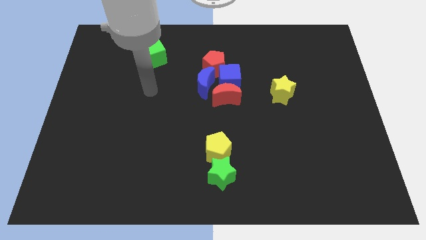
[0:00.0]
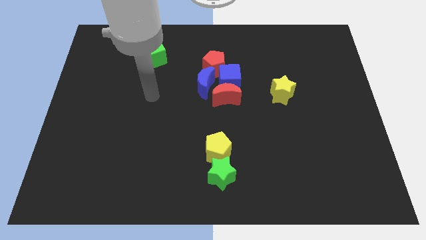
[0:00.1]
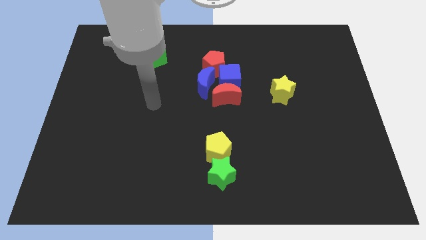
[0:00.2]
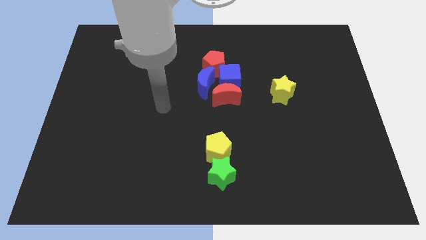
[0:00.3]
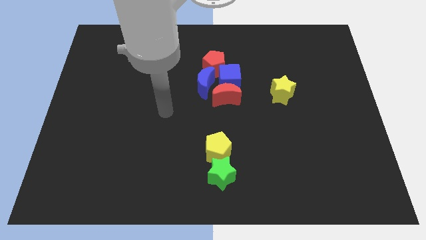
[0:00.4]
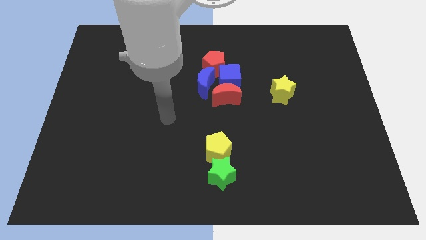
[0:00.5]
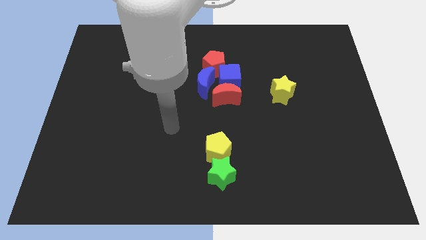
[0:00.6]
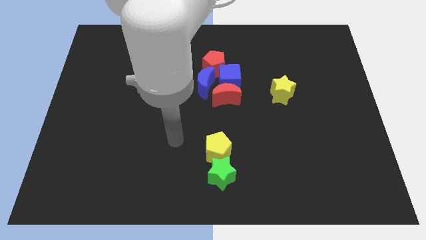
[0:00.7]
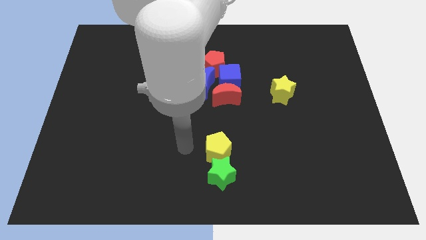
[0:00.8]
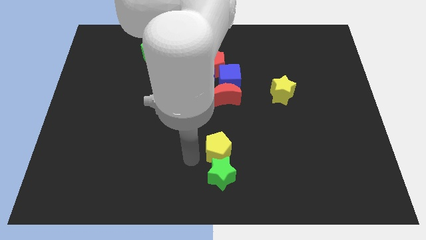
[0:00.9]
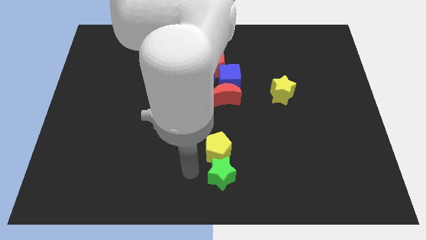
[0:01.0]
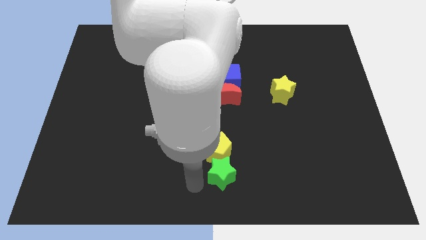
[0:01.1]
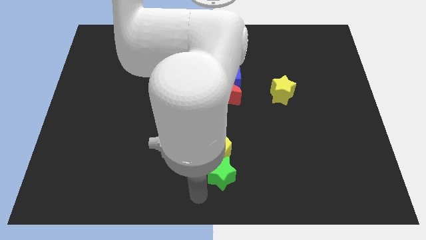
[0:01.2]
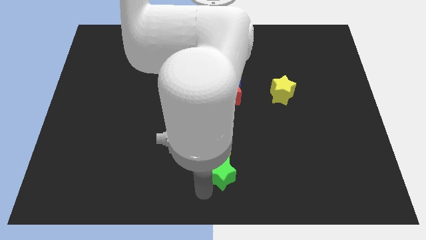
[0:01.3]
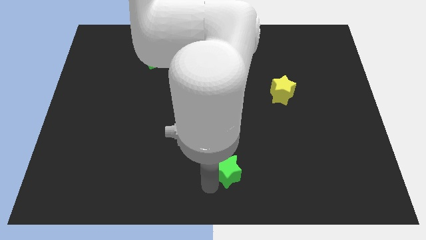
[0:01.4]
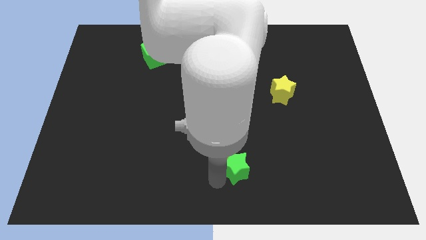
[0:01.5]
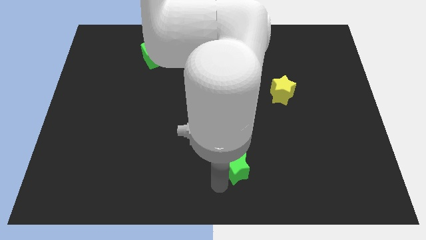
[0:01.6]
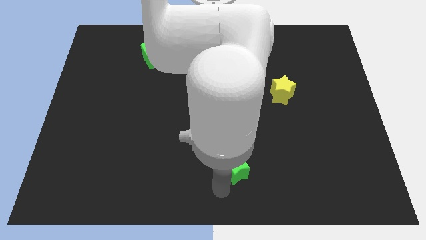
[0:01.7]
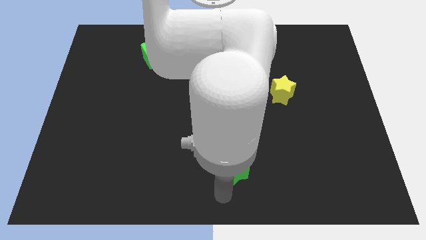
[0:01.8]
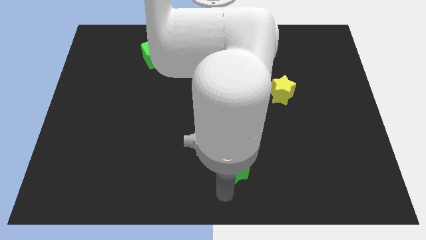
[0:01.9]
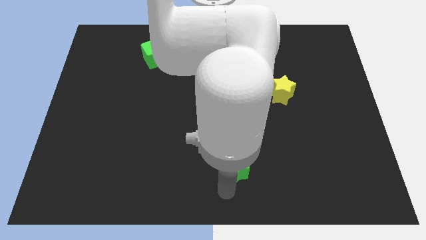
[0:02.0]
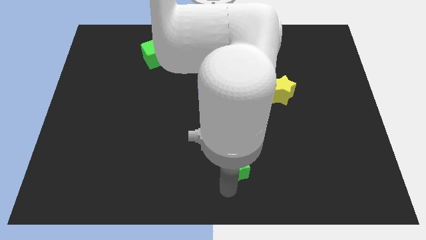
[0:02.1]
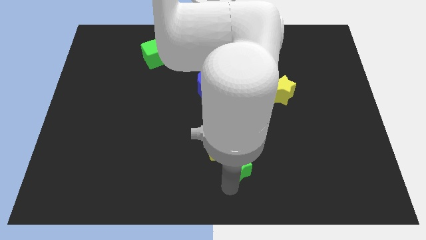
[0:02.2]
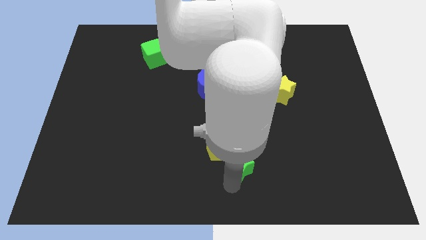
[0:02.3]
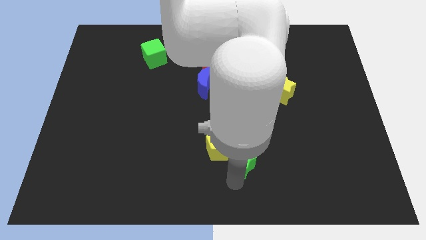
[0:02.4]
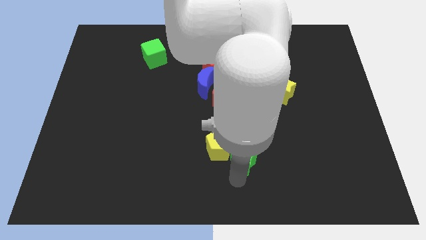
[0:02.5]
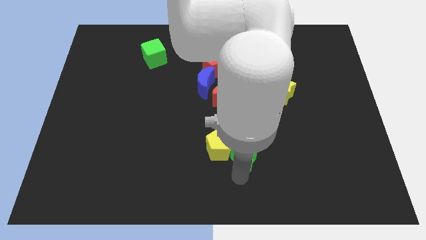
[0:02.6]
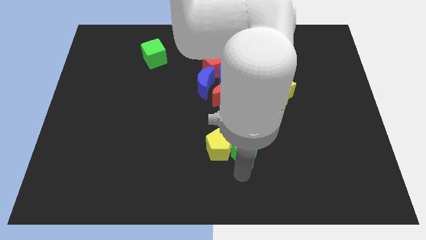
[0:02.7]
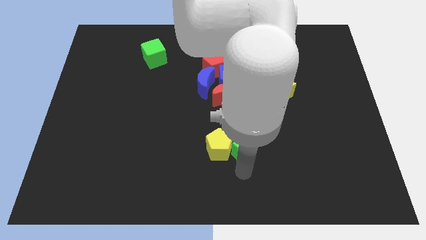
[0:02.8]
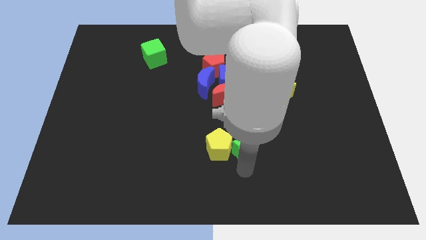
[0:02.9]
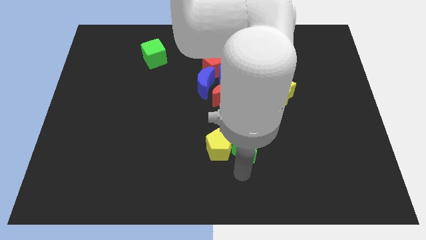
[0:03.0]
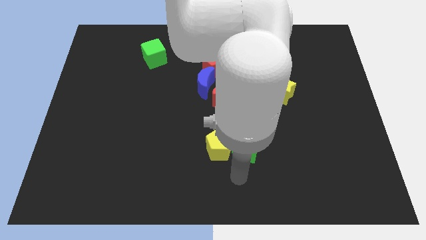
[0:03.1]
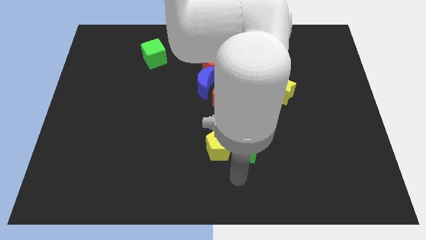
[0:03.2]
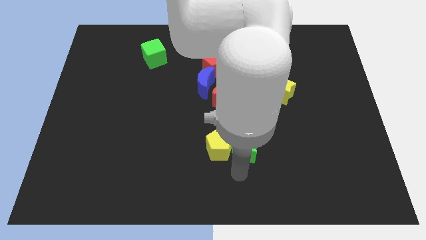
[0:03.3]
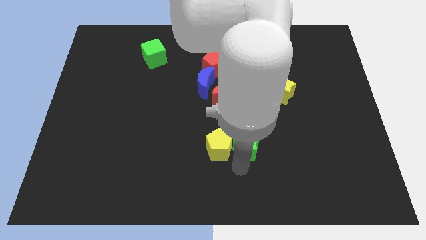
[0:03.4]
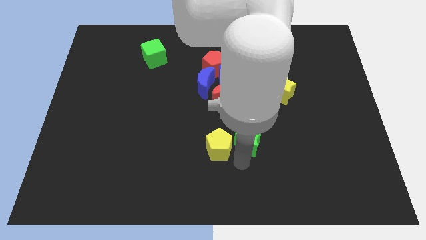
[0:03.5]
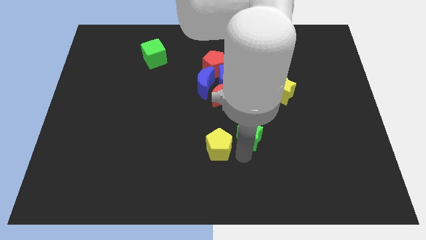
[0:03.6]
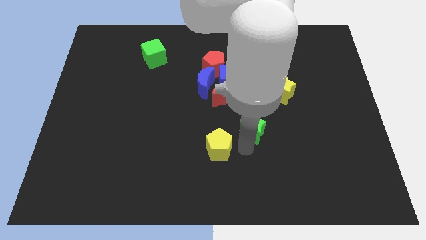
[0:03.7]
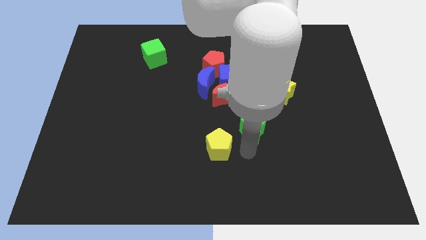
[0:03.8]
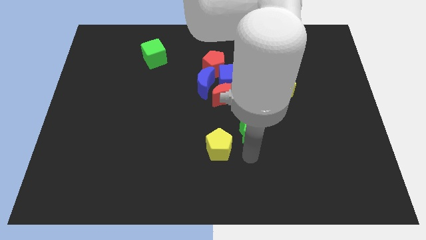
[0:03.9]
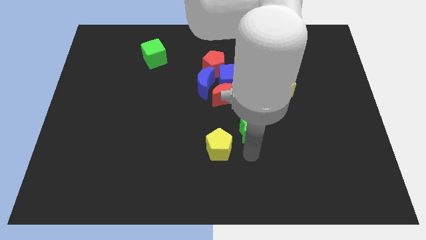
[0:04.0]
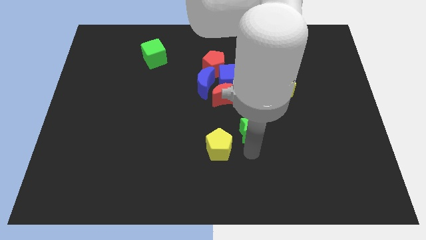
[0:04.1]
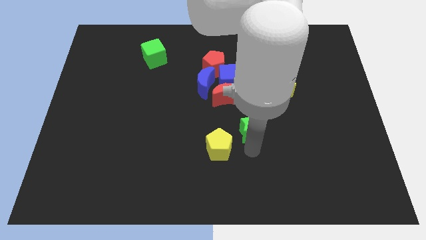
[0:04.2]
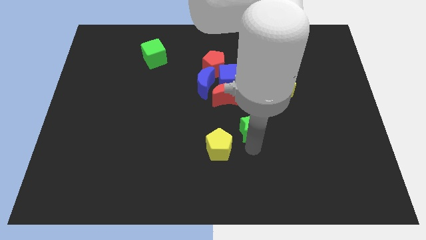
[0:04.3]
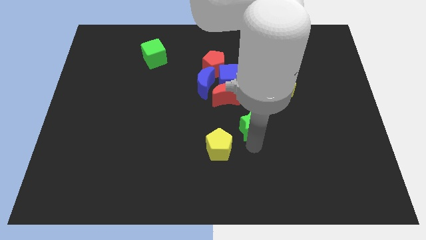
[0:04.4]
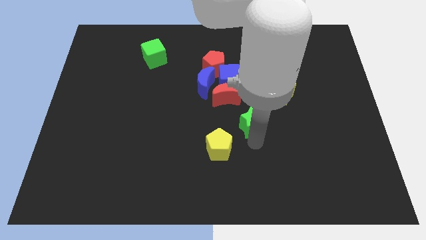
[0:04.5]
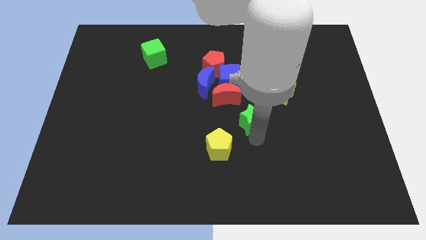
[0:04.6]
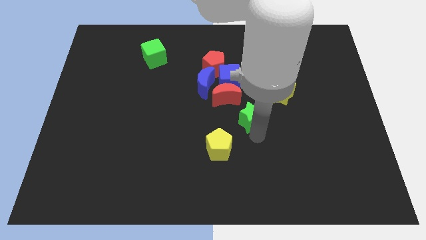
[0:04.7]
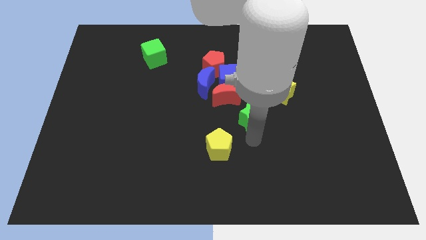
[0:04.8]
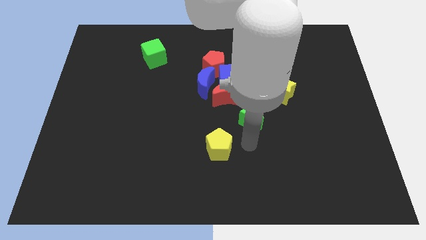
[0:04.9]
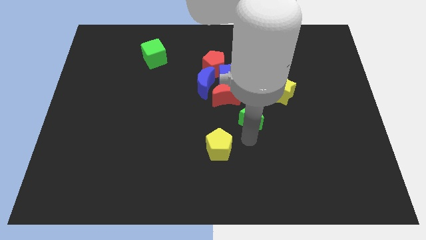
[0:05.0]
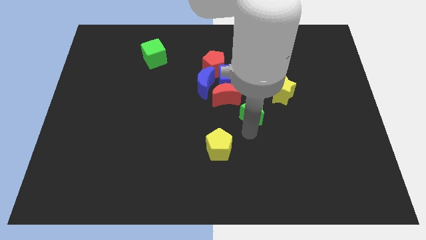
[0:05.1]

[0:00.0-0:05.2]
push the green star to the bottom right side of the blue cube

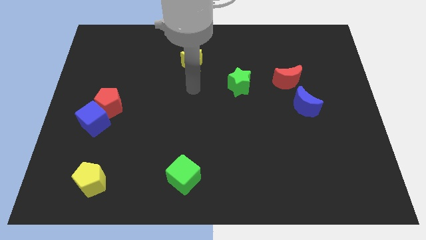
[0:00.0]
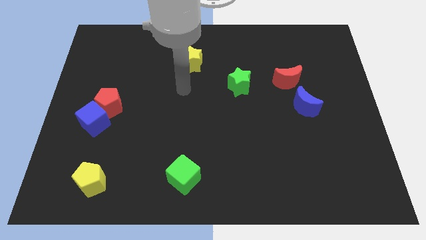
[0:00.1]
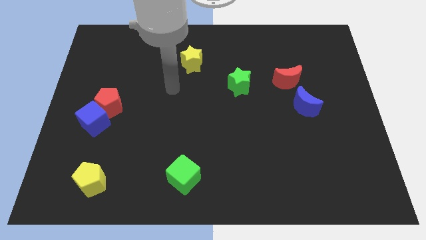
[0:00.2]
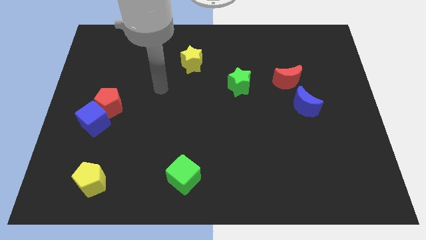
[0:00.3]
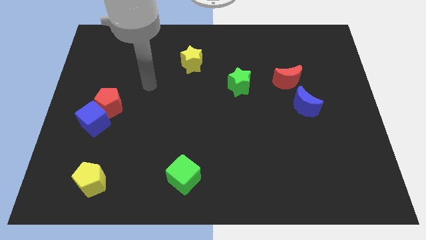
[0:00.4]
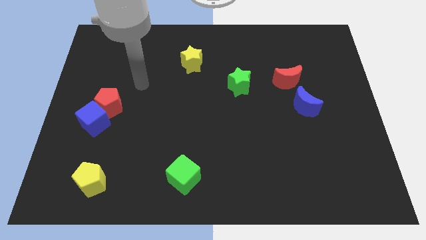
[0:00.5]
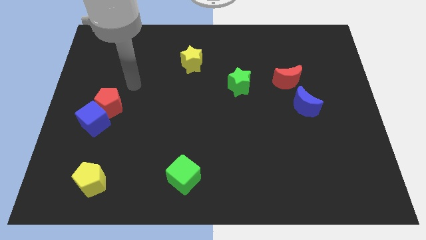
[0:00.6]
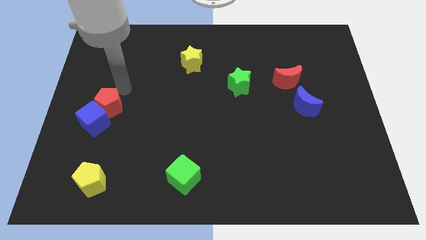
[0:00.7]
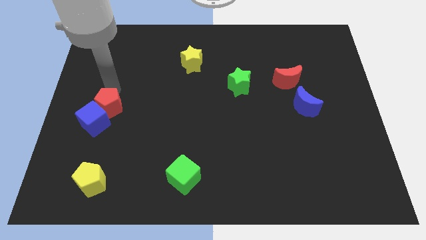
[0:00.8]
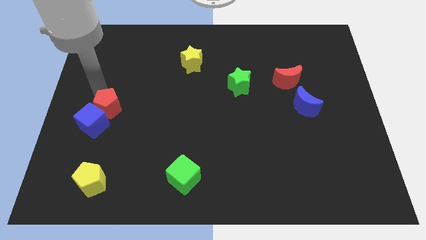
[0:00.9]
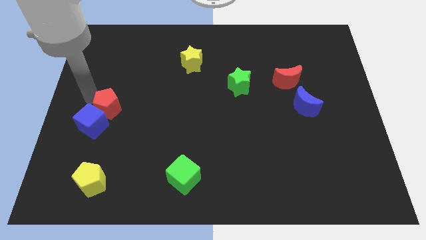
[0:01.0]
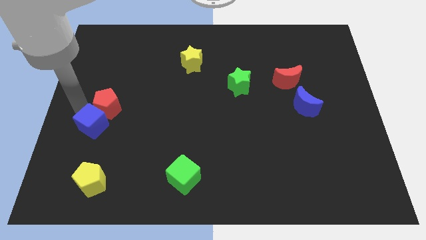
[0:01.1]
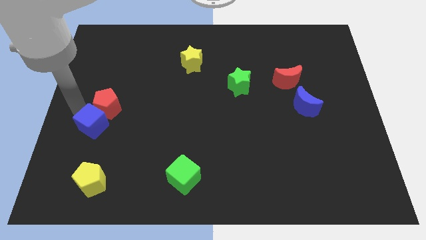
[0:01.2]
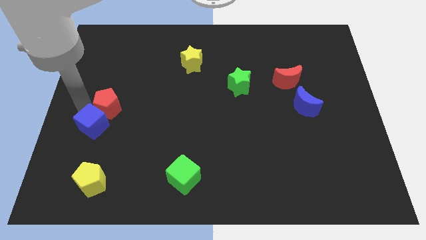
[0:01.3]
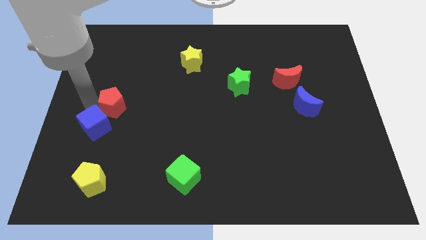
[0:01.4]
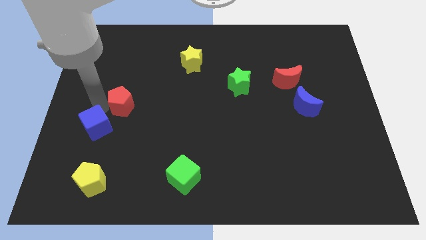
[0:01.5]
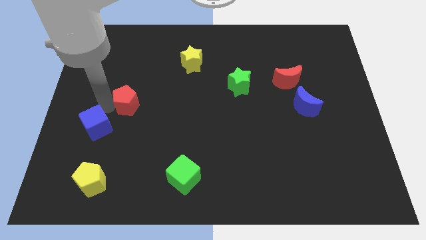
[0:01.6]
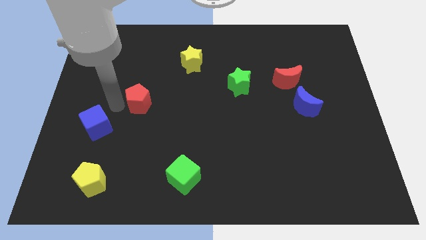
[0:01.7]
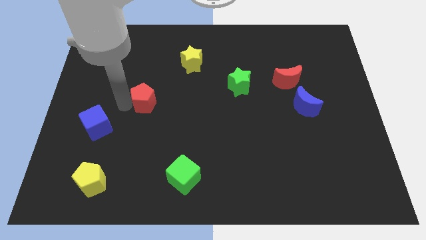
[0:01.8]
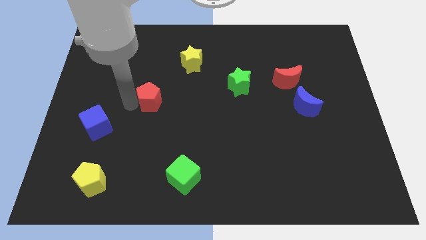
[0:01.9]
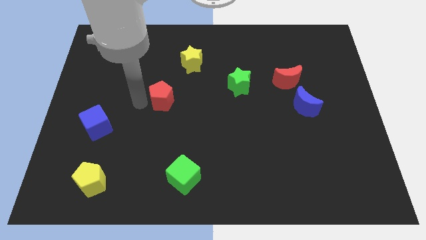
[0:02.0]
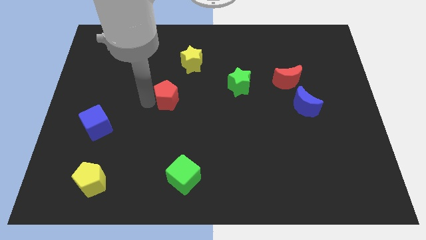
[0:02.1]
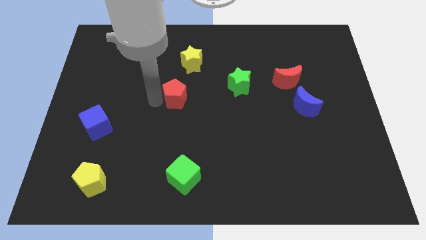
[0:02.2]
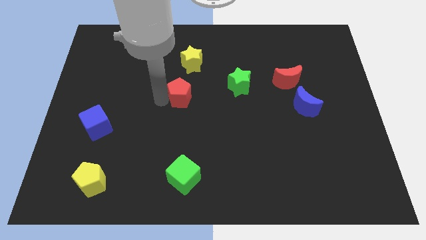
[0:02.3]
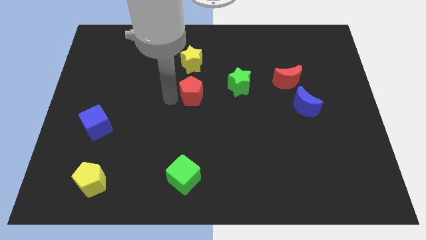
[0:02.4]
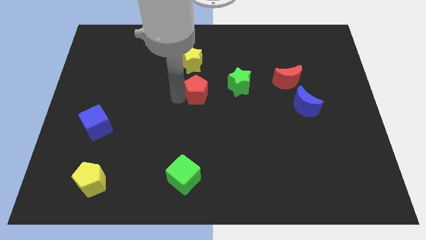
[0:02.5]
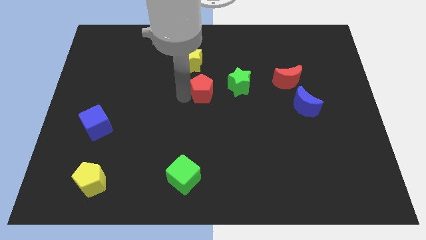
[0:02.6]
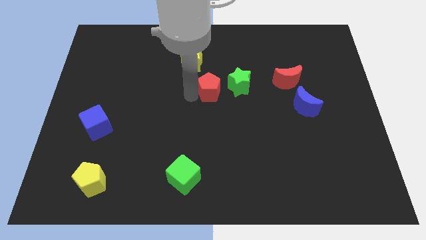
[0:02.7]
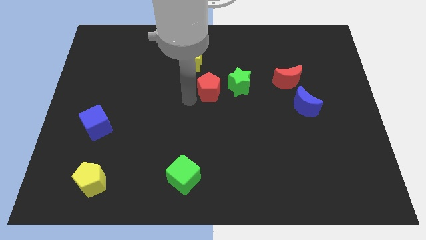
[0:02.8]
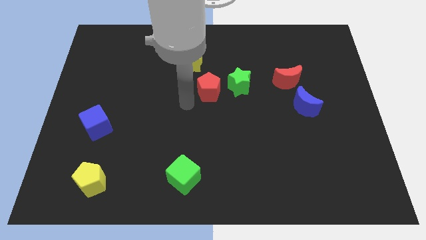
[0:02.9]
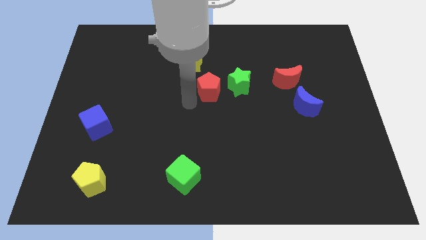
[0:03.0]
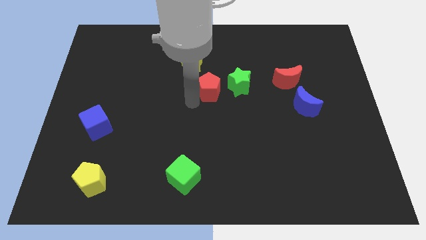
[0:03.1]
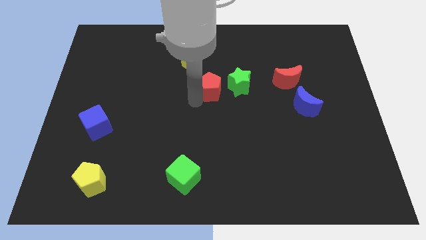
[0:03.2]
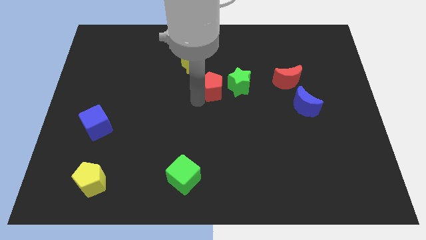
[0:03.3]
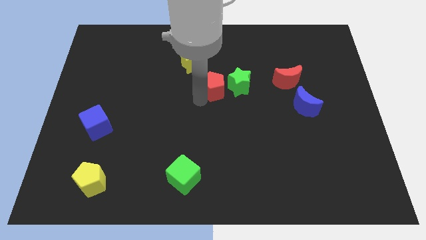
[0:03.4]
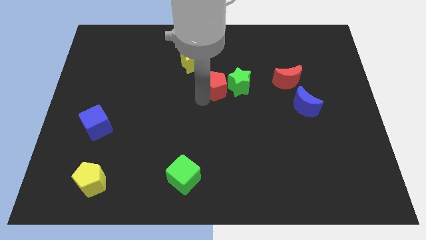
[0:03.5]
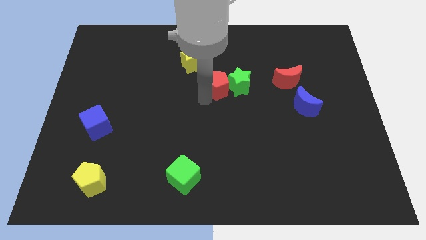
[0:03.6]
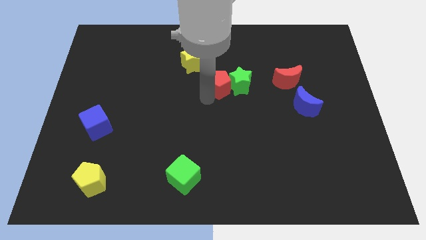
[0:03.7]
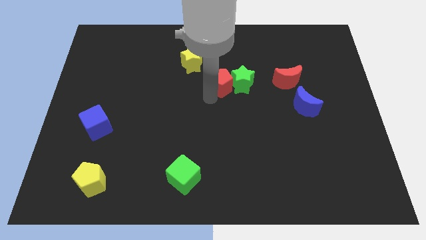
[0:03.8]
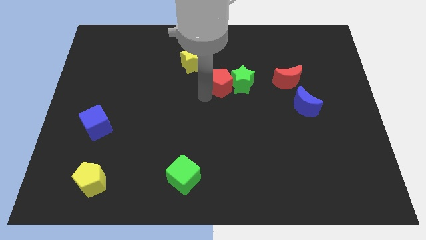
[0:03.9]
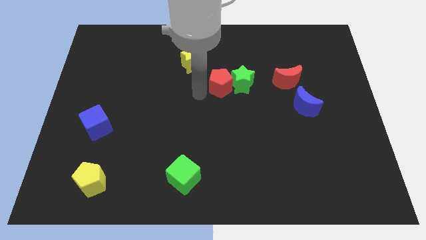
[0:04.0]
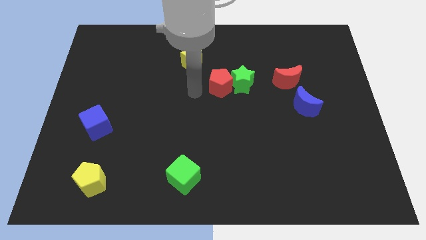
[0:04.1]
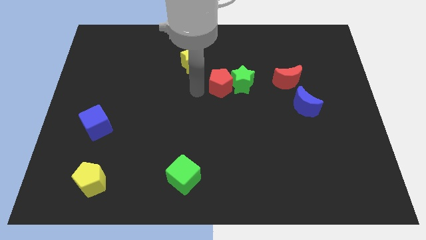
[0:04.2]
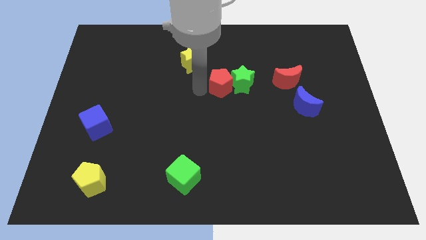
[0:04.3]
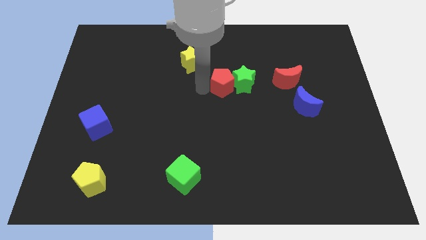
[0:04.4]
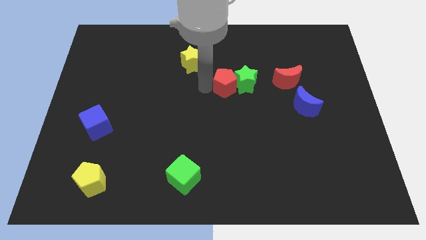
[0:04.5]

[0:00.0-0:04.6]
move the red pentagon to the left of the red moon
